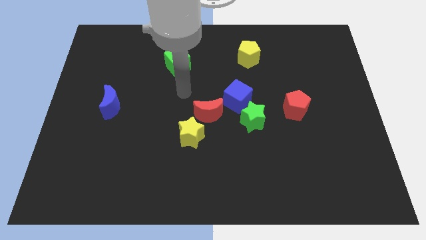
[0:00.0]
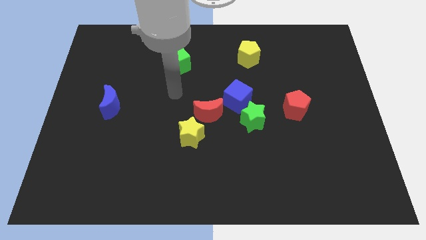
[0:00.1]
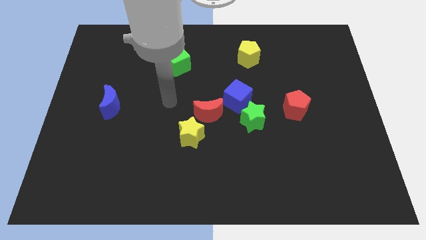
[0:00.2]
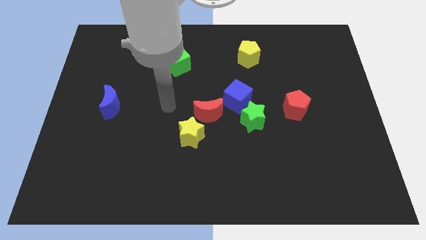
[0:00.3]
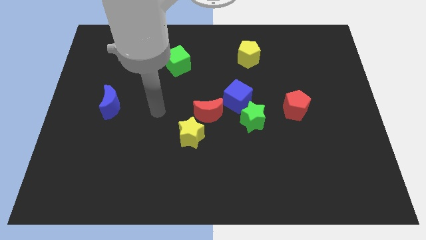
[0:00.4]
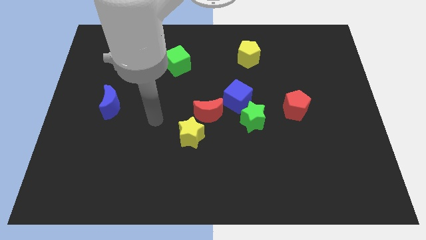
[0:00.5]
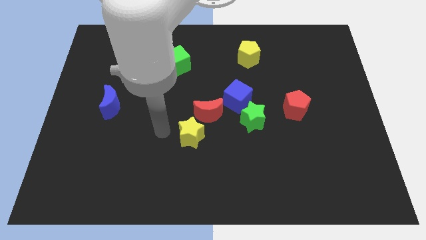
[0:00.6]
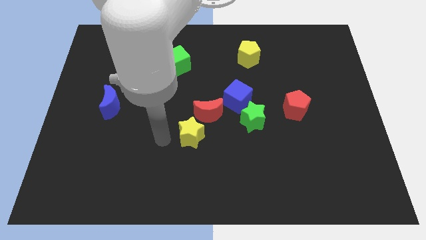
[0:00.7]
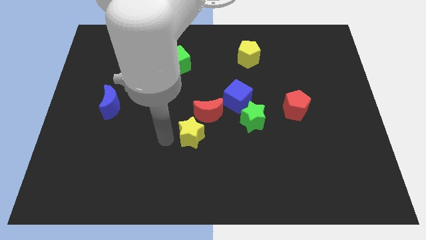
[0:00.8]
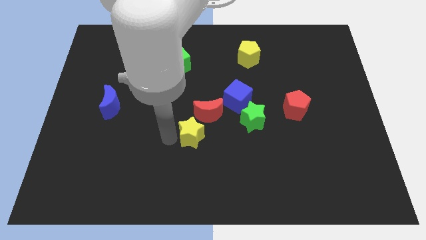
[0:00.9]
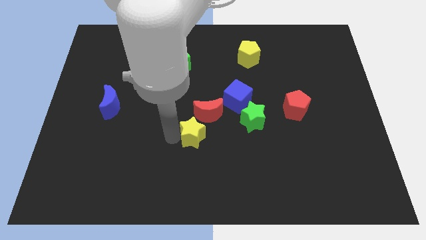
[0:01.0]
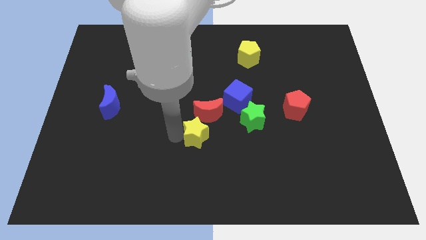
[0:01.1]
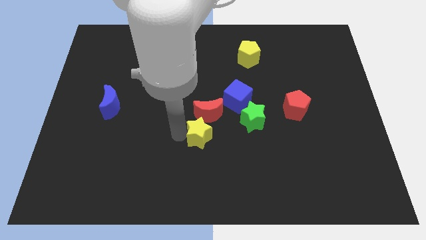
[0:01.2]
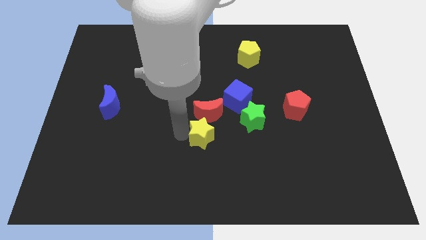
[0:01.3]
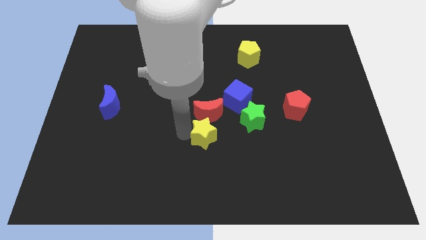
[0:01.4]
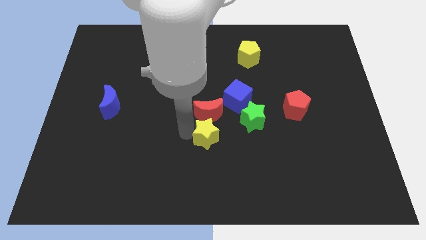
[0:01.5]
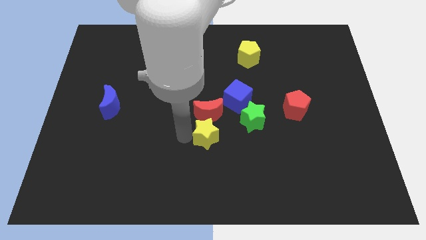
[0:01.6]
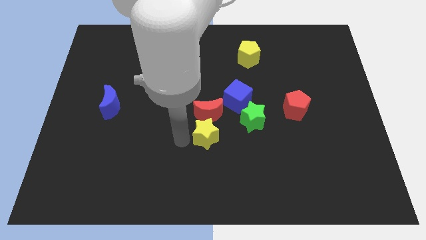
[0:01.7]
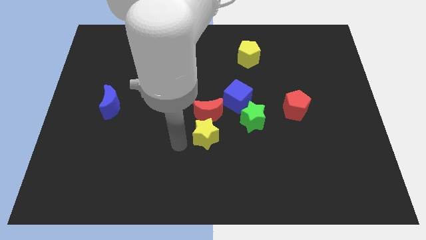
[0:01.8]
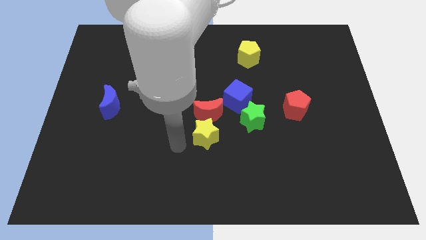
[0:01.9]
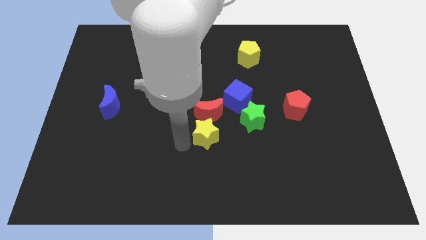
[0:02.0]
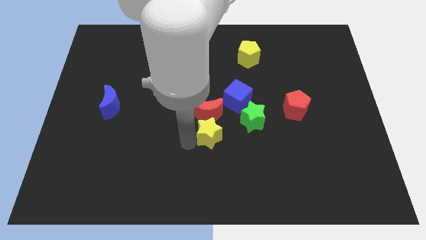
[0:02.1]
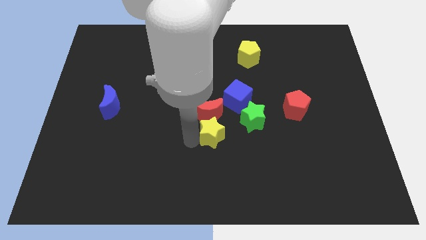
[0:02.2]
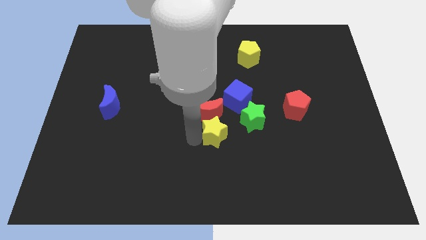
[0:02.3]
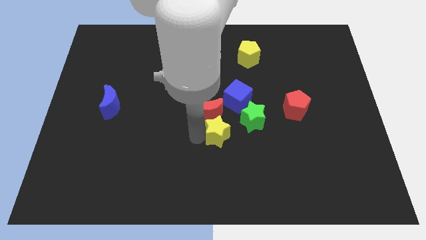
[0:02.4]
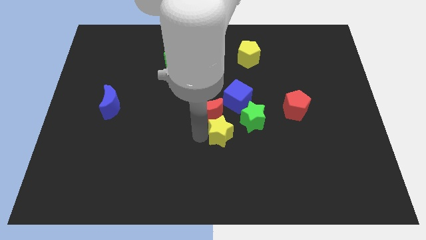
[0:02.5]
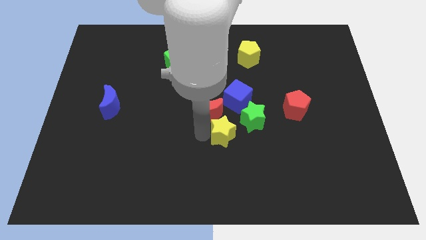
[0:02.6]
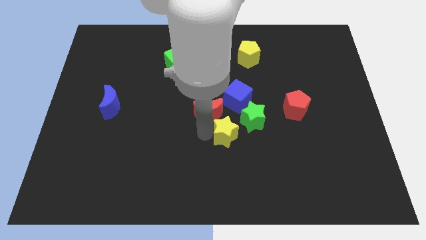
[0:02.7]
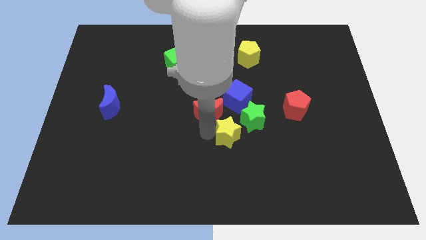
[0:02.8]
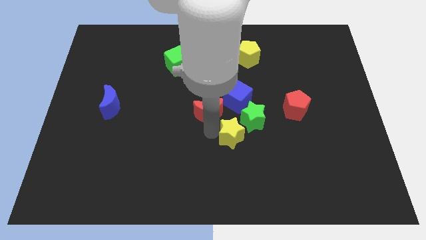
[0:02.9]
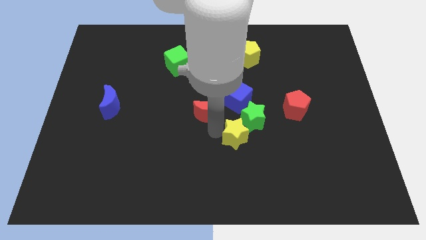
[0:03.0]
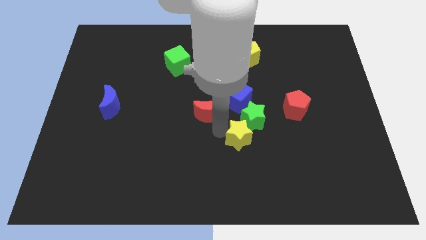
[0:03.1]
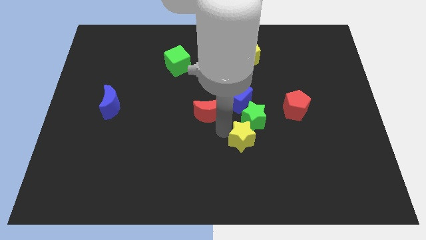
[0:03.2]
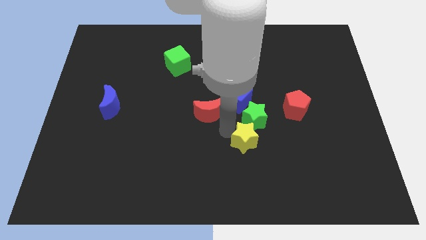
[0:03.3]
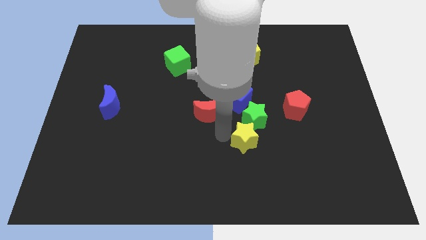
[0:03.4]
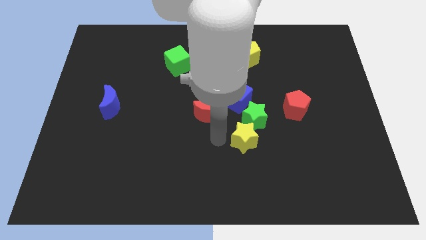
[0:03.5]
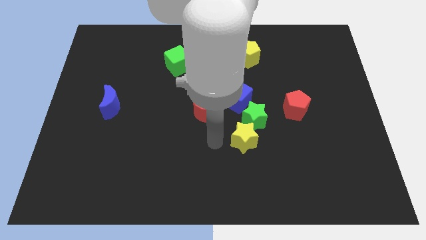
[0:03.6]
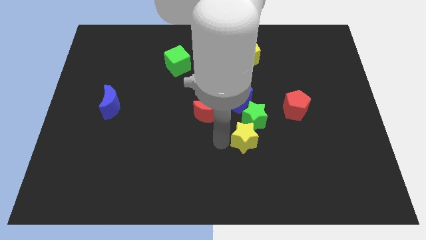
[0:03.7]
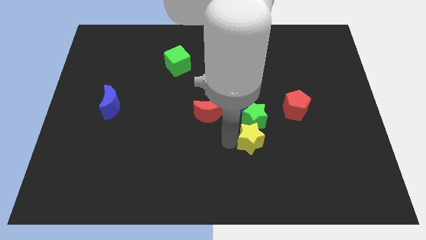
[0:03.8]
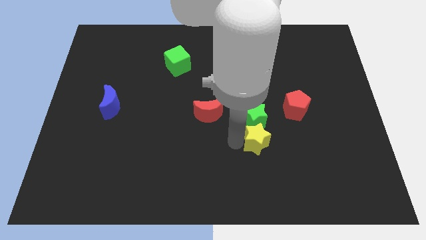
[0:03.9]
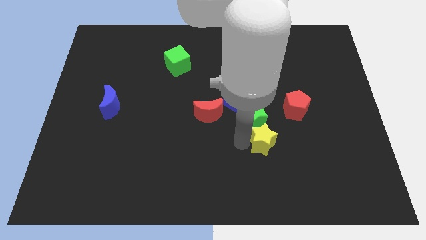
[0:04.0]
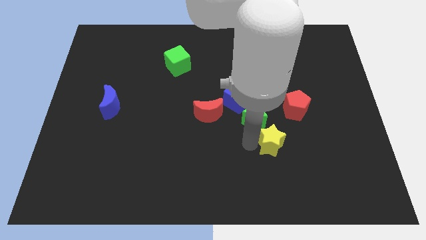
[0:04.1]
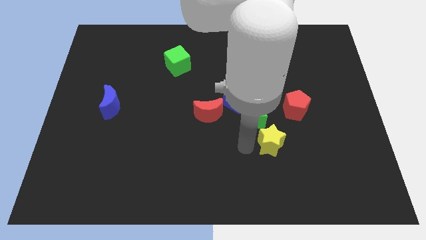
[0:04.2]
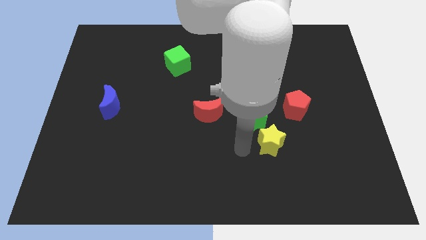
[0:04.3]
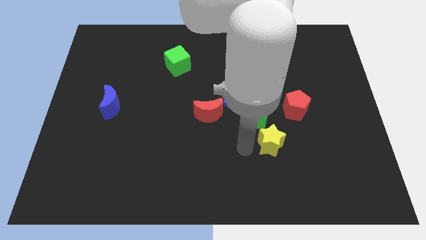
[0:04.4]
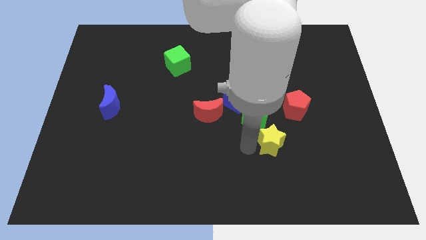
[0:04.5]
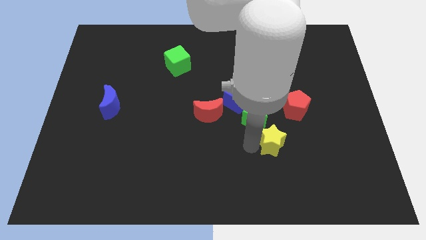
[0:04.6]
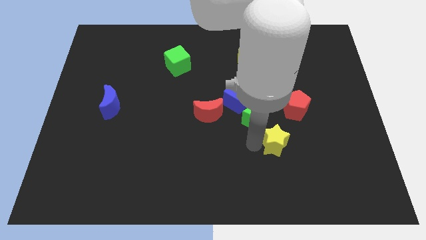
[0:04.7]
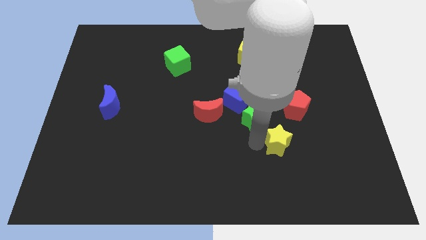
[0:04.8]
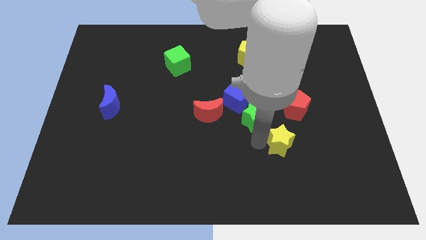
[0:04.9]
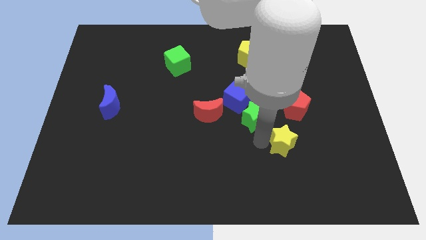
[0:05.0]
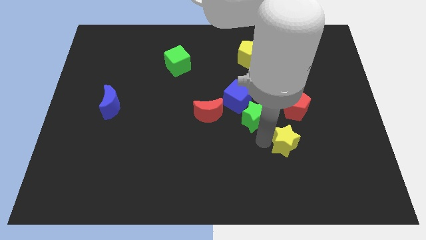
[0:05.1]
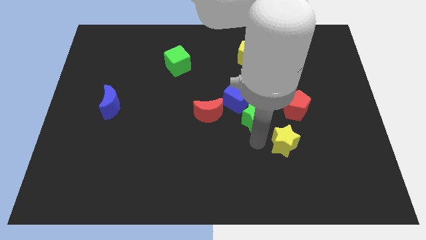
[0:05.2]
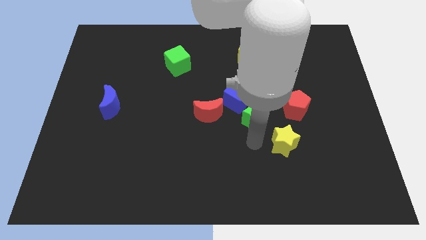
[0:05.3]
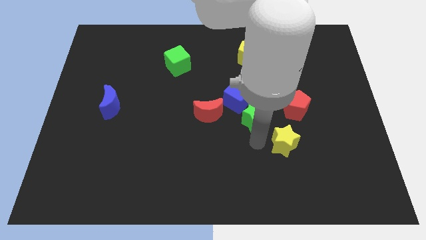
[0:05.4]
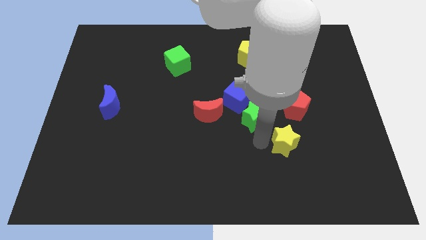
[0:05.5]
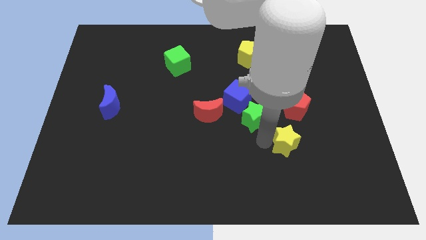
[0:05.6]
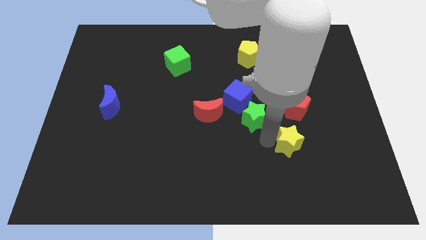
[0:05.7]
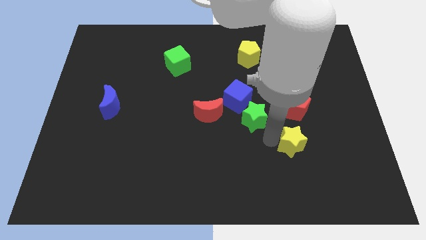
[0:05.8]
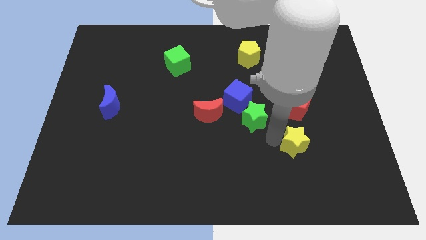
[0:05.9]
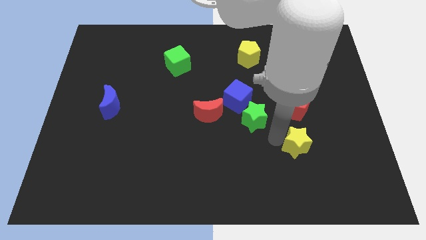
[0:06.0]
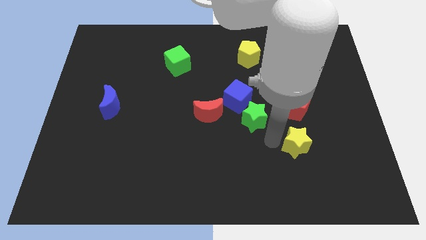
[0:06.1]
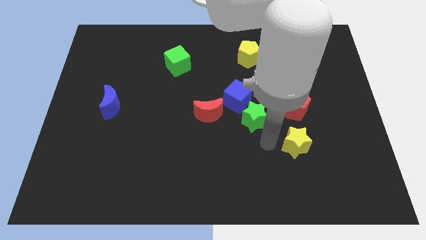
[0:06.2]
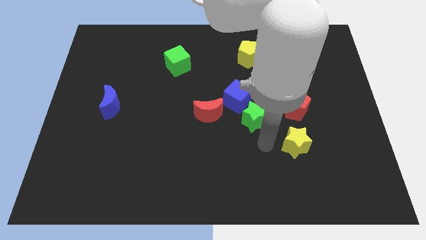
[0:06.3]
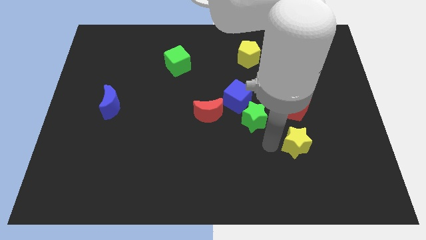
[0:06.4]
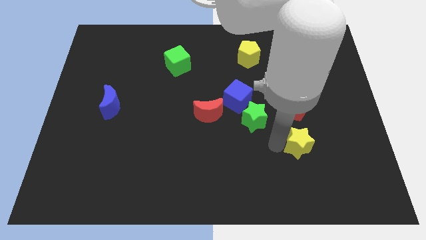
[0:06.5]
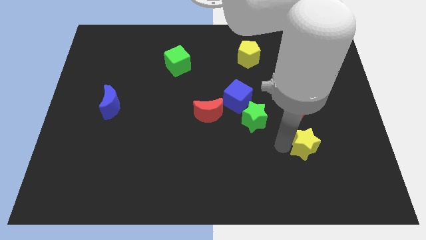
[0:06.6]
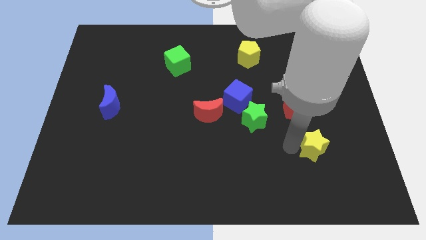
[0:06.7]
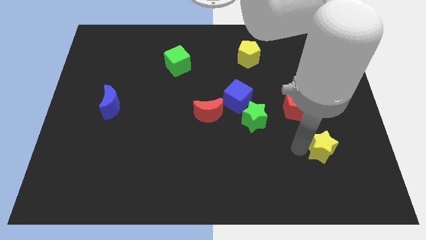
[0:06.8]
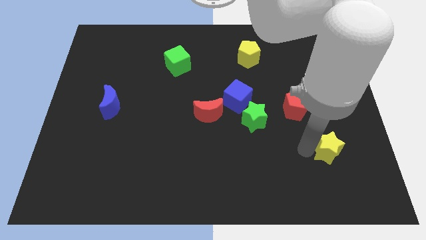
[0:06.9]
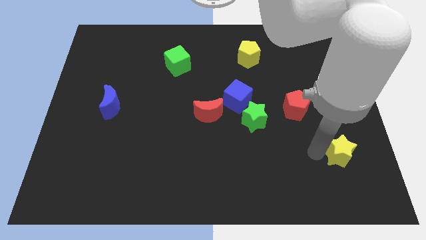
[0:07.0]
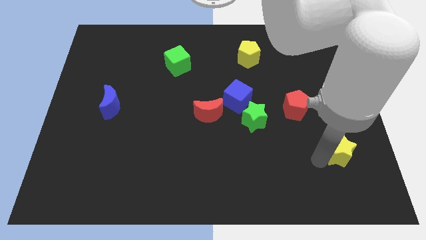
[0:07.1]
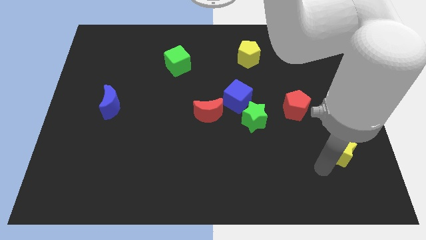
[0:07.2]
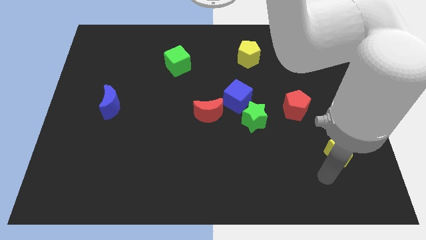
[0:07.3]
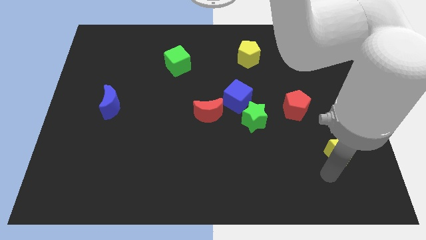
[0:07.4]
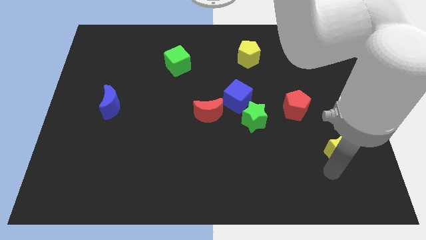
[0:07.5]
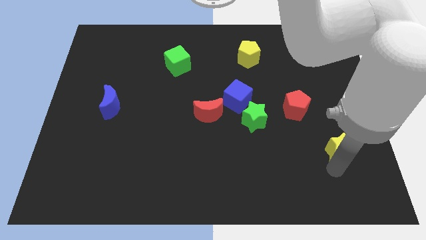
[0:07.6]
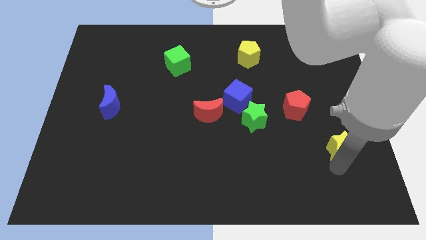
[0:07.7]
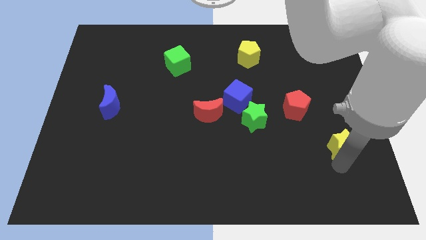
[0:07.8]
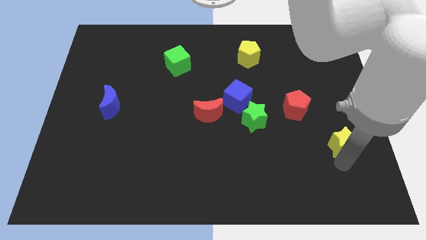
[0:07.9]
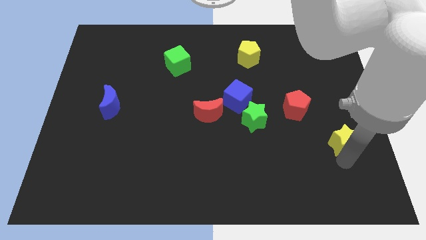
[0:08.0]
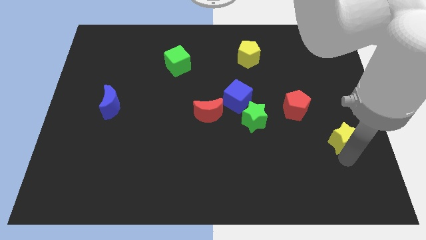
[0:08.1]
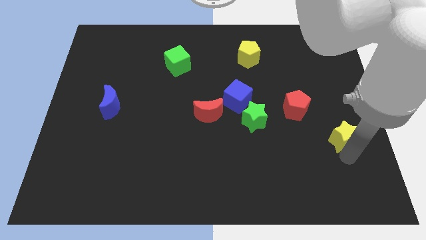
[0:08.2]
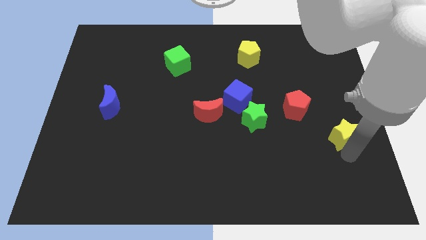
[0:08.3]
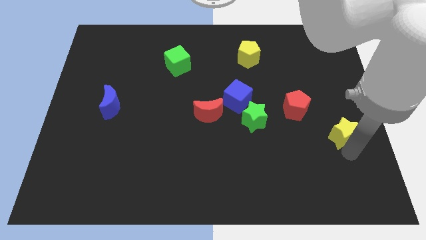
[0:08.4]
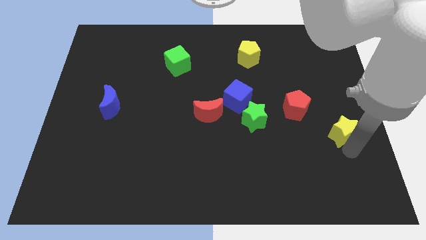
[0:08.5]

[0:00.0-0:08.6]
slide the yellow star to the right side of the board
